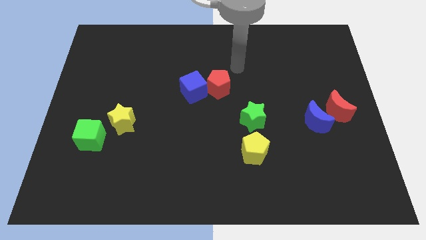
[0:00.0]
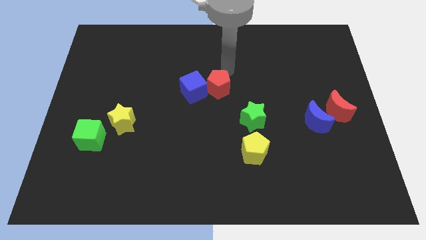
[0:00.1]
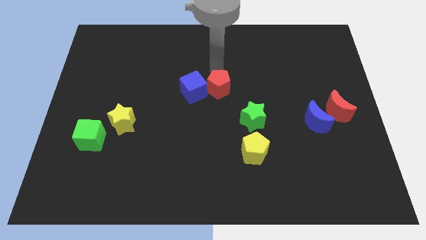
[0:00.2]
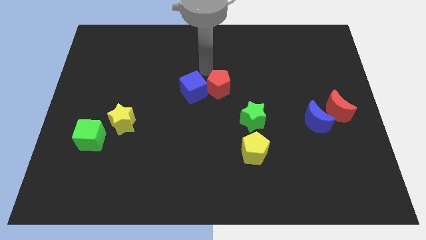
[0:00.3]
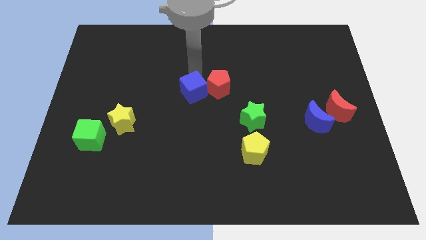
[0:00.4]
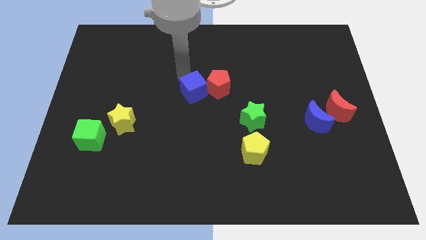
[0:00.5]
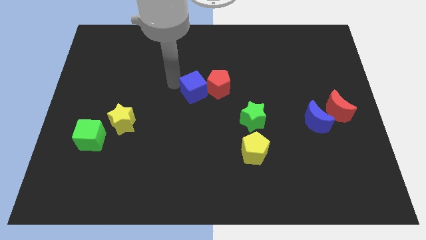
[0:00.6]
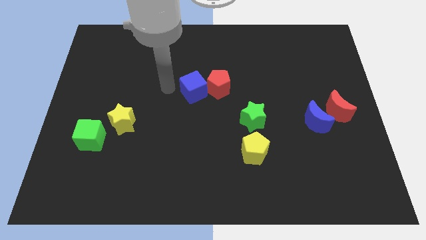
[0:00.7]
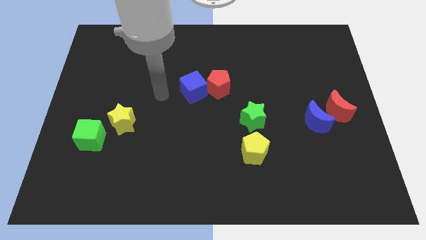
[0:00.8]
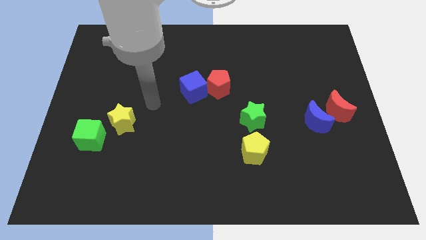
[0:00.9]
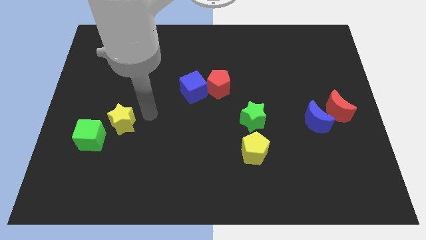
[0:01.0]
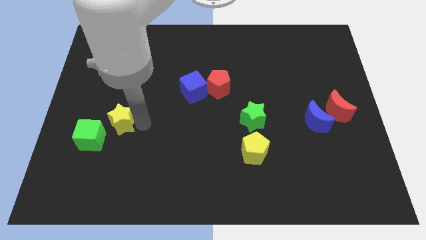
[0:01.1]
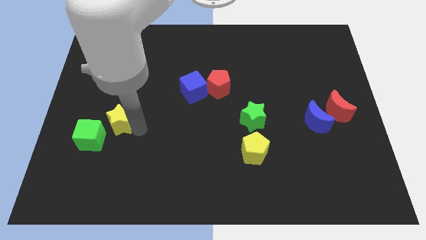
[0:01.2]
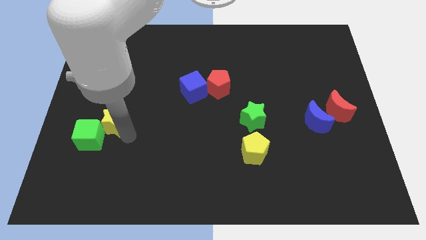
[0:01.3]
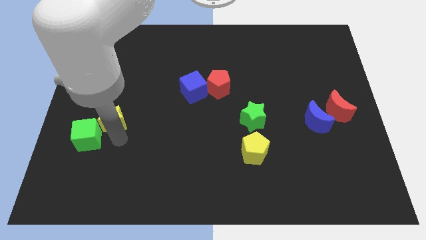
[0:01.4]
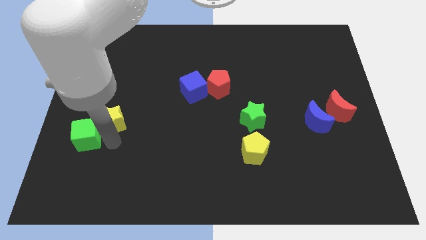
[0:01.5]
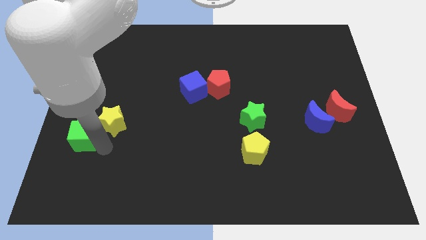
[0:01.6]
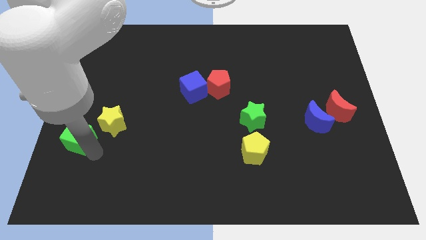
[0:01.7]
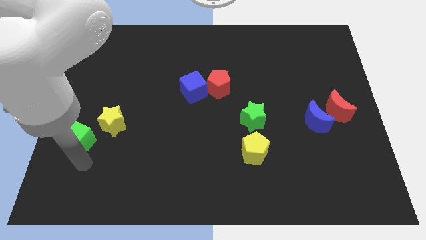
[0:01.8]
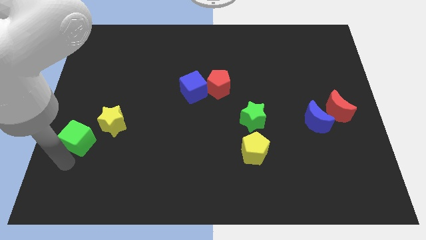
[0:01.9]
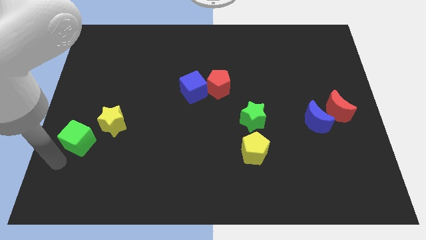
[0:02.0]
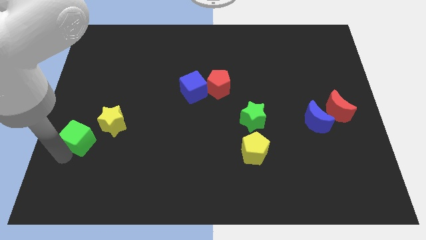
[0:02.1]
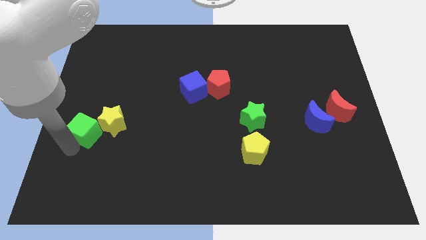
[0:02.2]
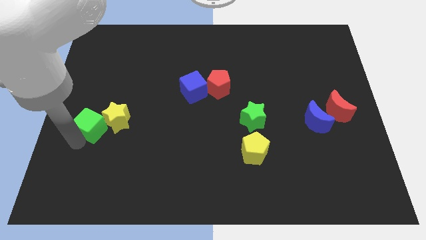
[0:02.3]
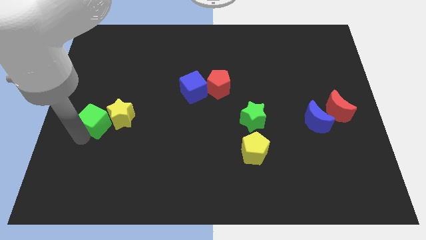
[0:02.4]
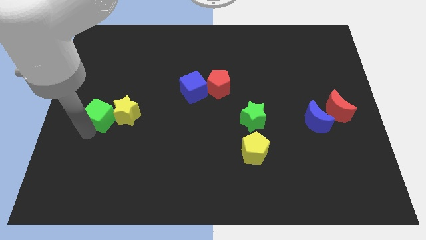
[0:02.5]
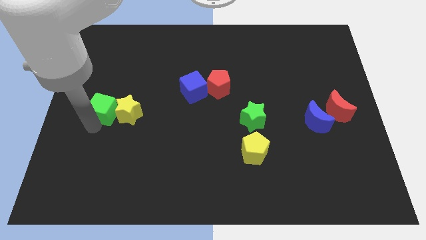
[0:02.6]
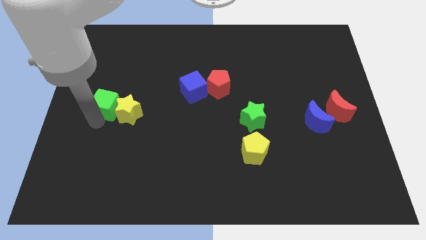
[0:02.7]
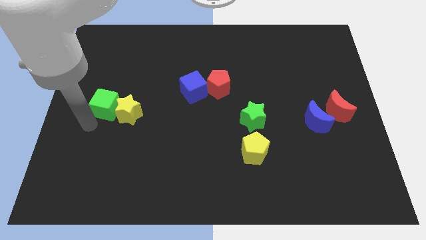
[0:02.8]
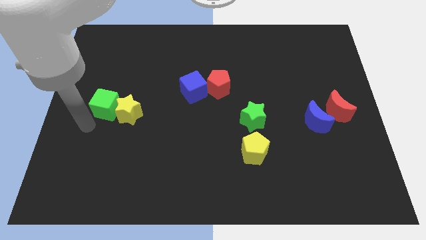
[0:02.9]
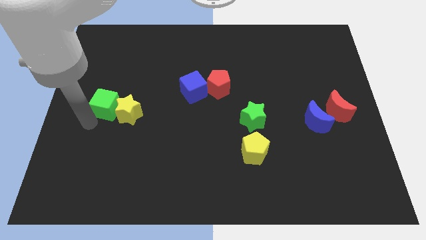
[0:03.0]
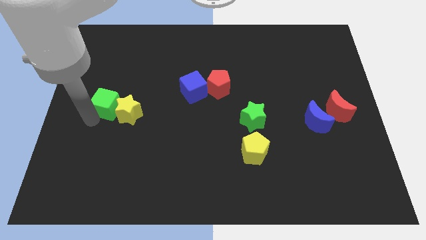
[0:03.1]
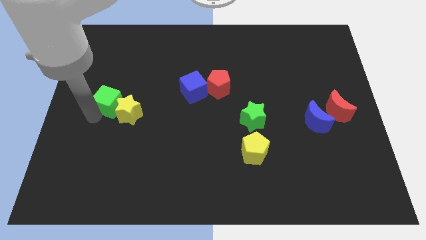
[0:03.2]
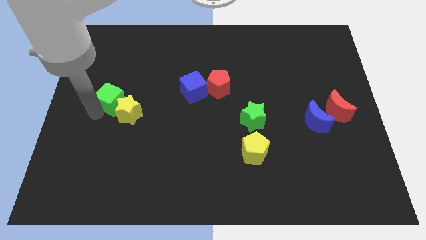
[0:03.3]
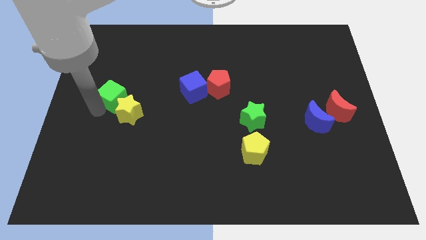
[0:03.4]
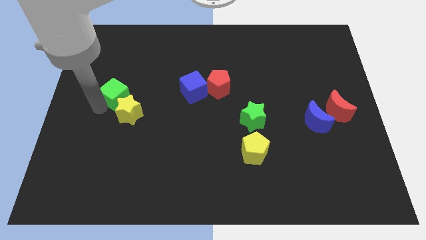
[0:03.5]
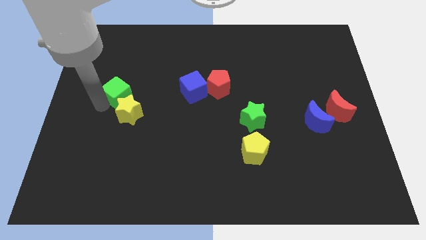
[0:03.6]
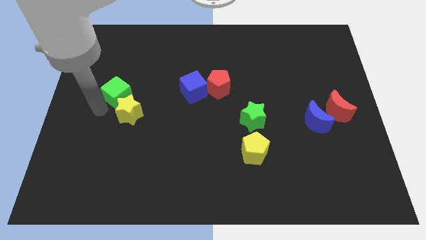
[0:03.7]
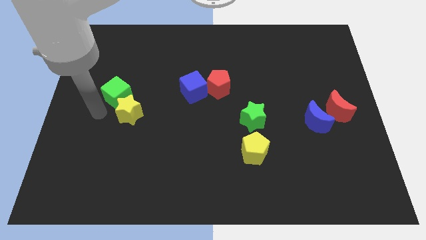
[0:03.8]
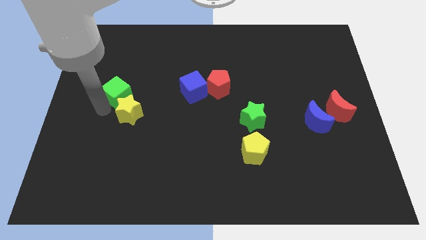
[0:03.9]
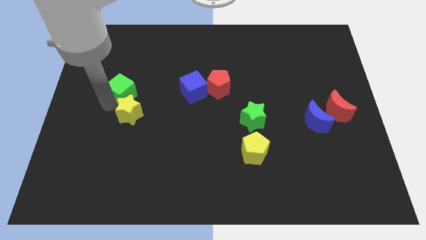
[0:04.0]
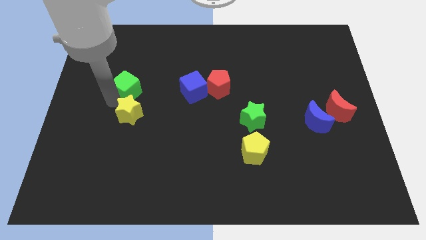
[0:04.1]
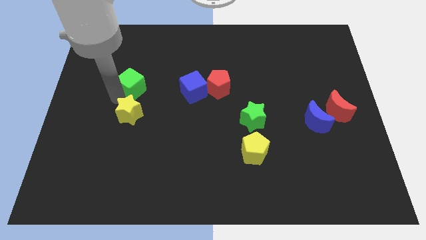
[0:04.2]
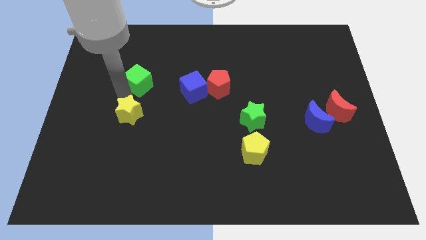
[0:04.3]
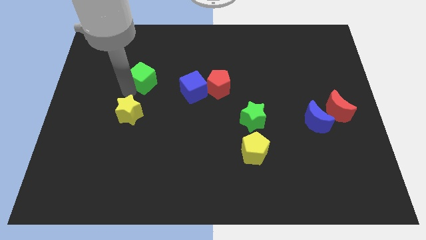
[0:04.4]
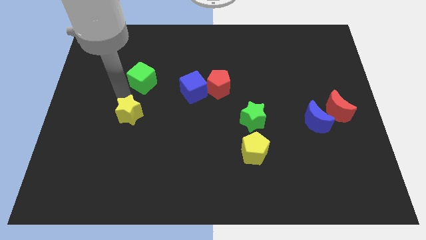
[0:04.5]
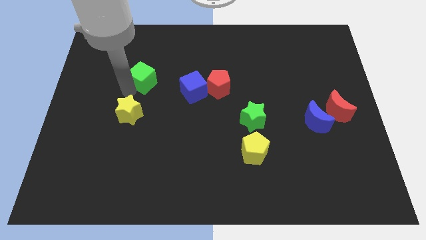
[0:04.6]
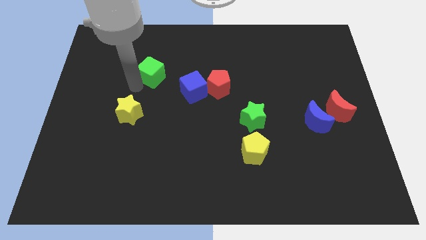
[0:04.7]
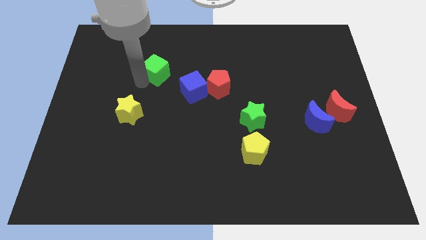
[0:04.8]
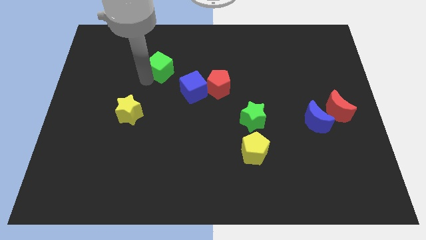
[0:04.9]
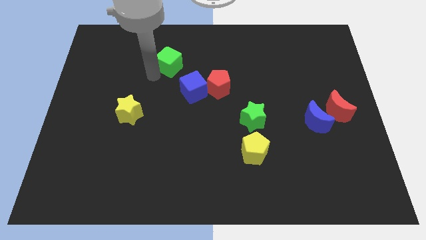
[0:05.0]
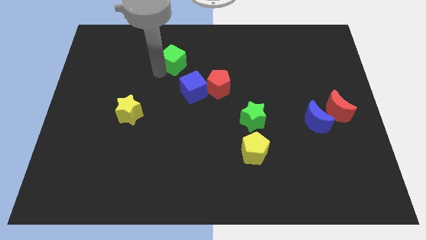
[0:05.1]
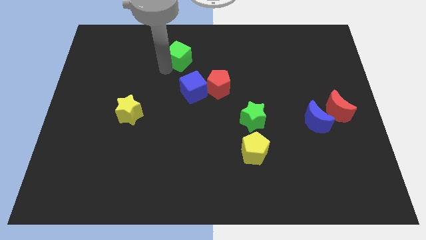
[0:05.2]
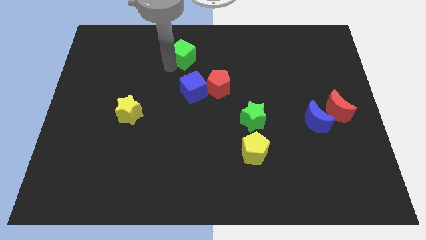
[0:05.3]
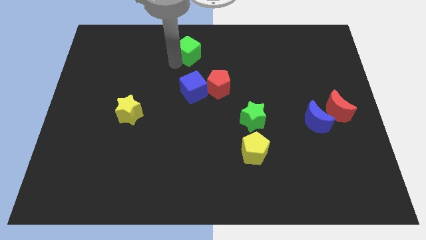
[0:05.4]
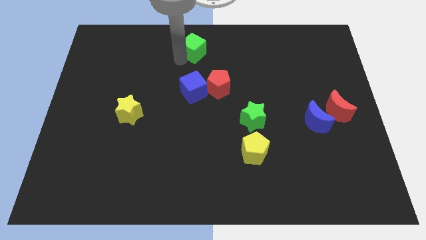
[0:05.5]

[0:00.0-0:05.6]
put the green cube to the top

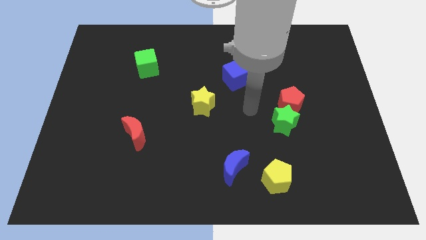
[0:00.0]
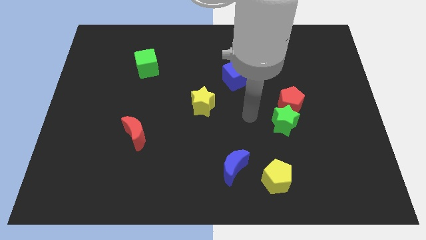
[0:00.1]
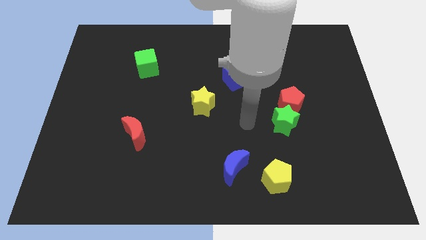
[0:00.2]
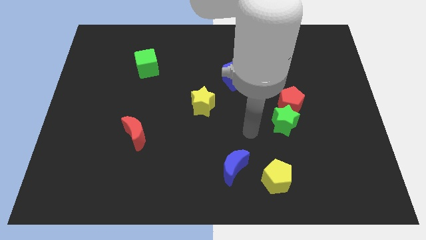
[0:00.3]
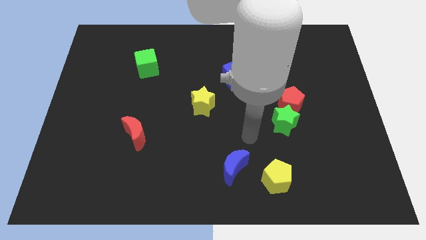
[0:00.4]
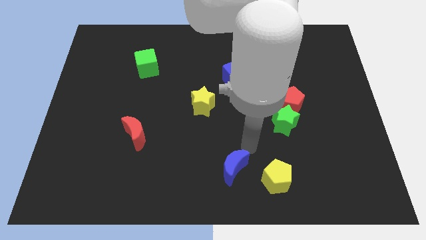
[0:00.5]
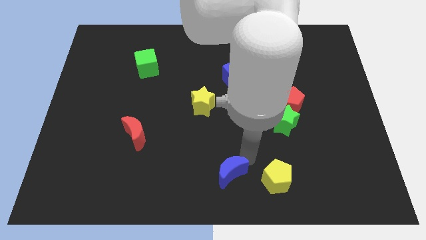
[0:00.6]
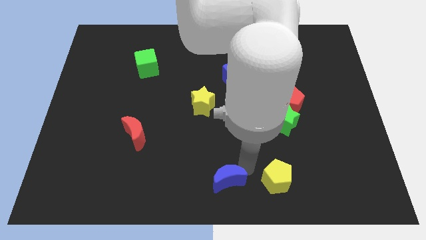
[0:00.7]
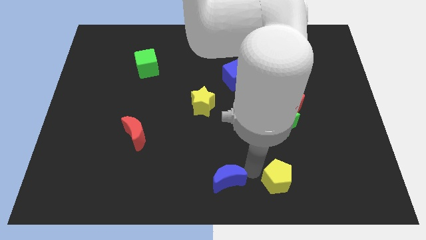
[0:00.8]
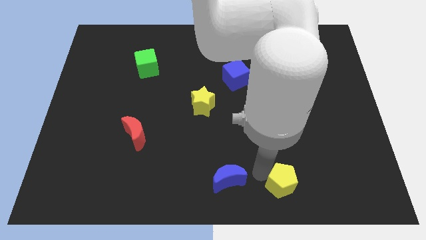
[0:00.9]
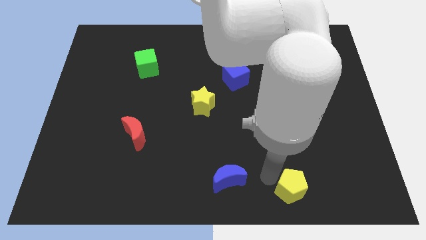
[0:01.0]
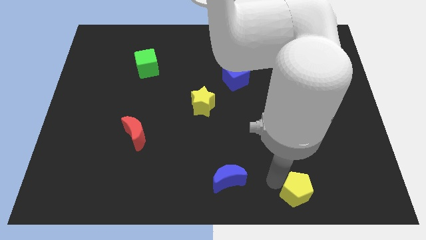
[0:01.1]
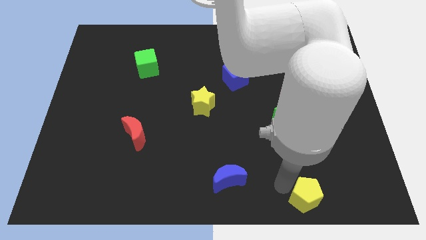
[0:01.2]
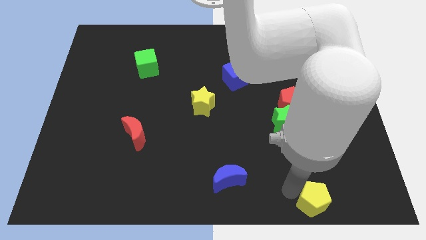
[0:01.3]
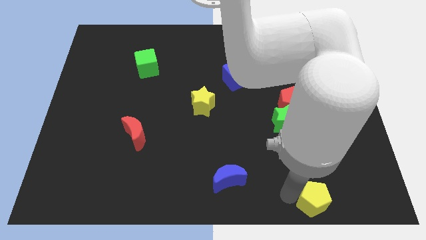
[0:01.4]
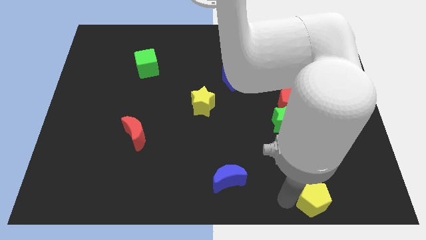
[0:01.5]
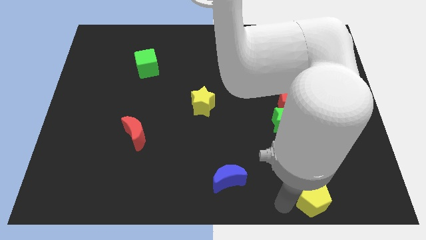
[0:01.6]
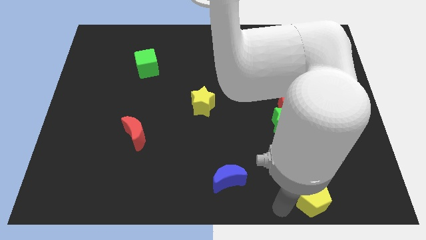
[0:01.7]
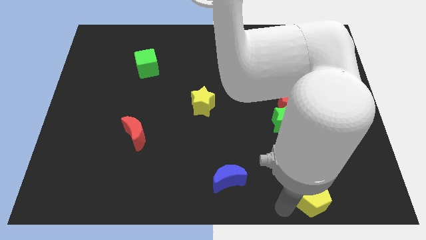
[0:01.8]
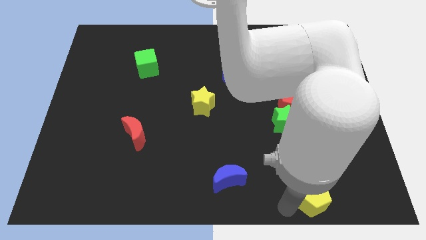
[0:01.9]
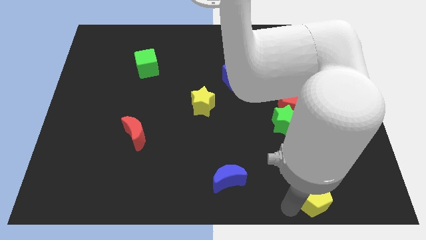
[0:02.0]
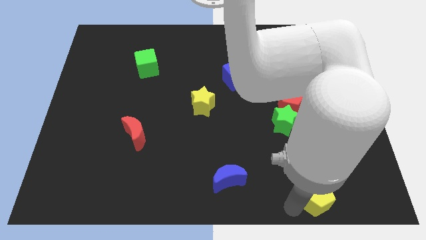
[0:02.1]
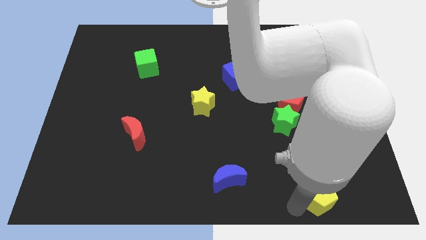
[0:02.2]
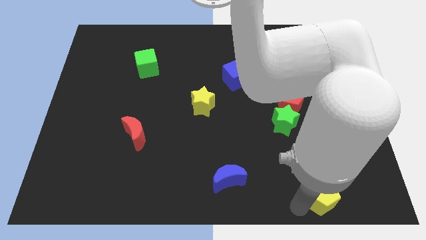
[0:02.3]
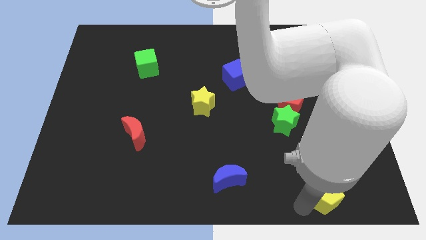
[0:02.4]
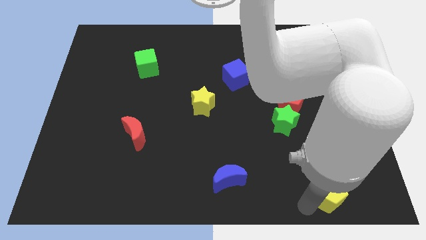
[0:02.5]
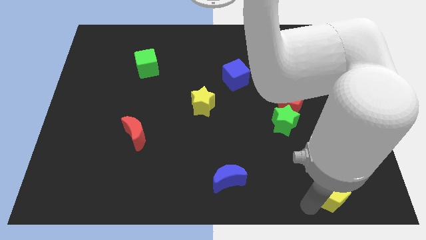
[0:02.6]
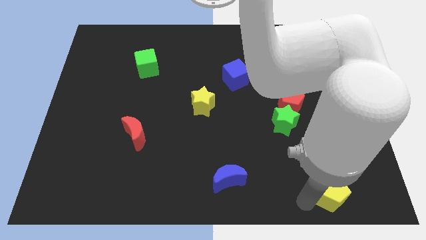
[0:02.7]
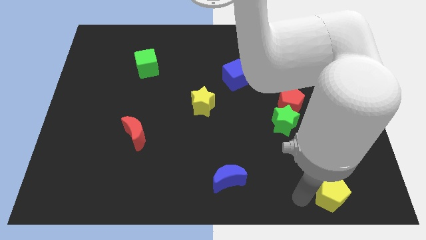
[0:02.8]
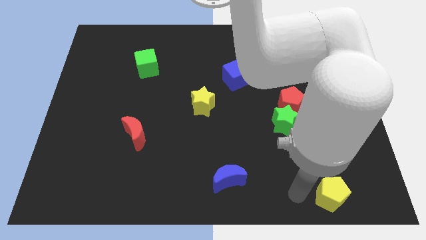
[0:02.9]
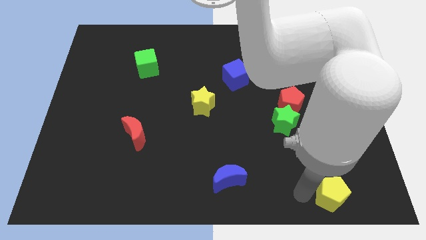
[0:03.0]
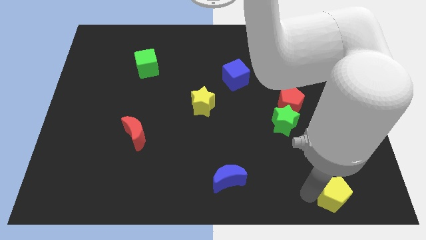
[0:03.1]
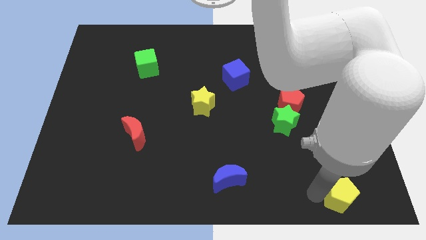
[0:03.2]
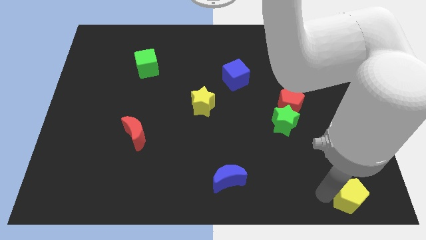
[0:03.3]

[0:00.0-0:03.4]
put the yellow pentagon to the bottom right of the board
